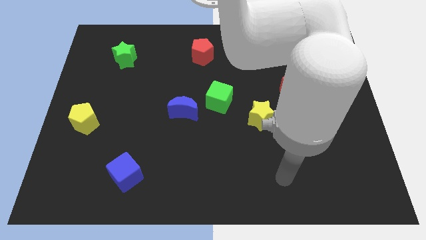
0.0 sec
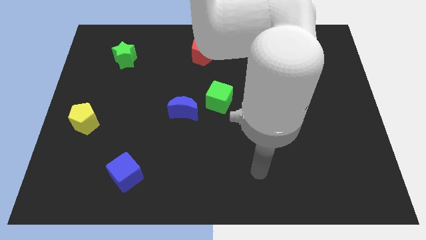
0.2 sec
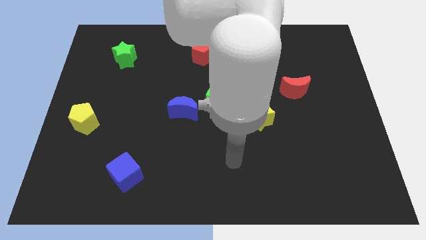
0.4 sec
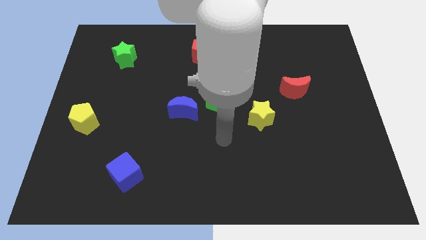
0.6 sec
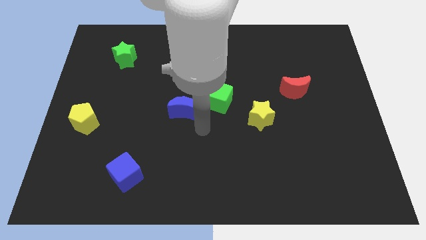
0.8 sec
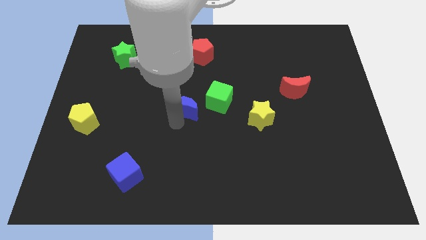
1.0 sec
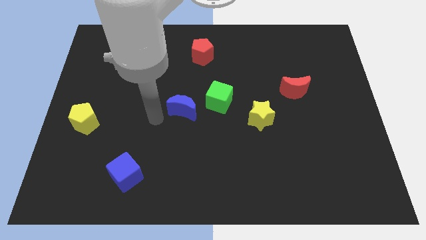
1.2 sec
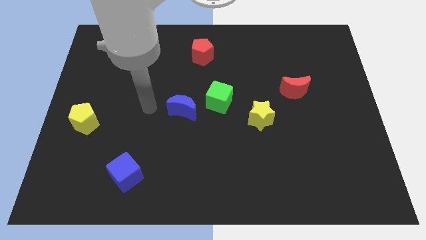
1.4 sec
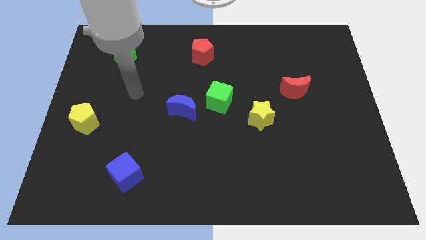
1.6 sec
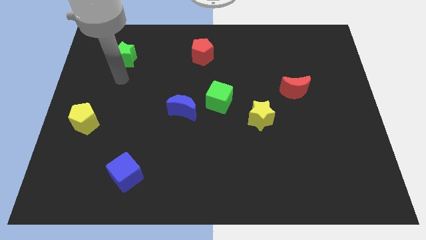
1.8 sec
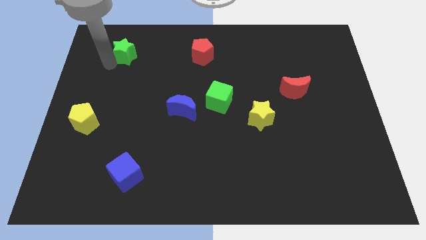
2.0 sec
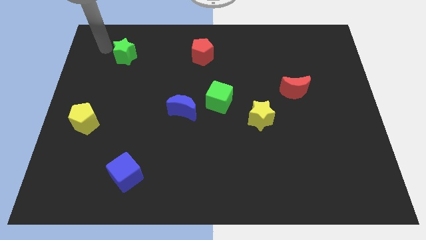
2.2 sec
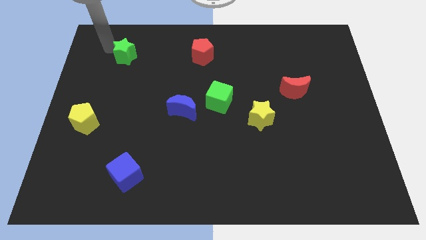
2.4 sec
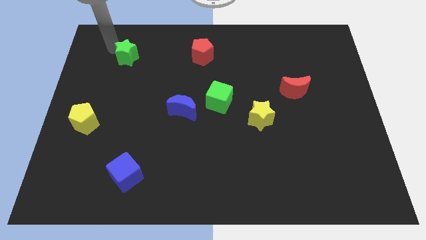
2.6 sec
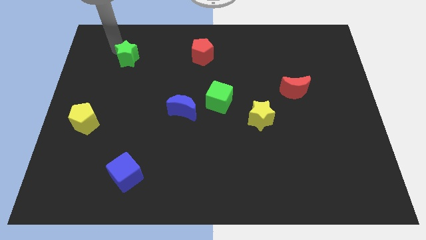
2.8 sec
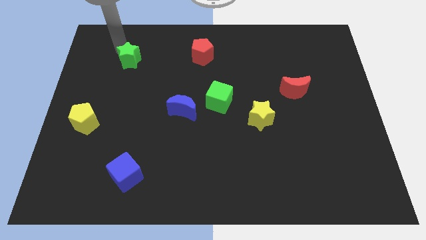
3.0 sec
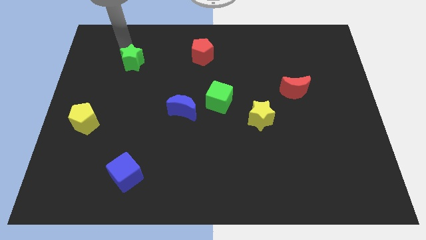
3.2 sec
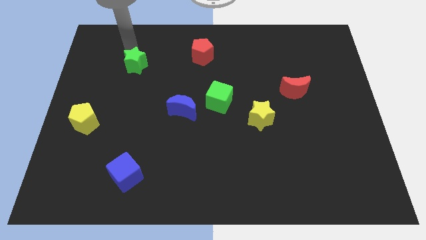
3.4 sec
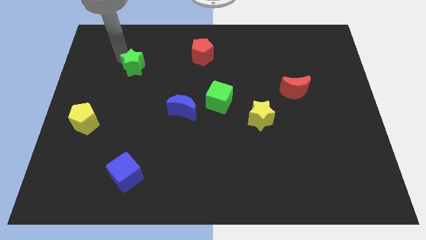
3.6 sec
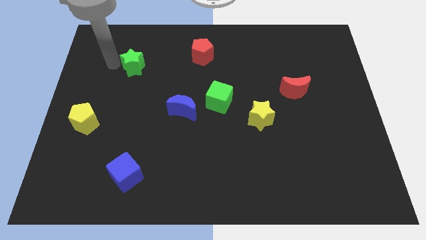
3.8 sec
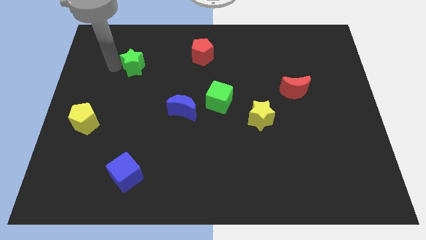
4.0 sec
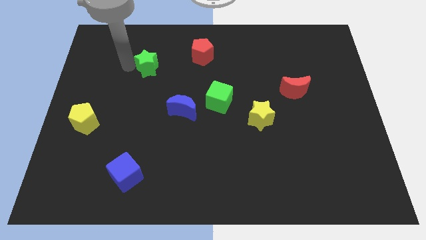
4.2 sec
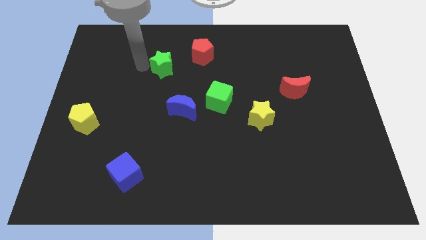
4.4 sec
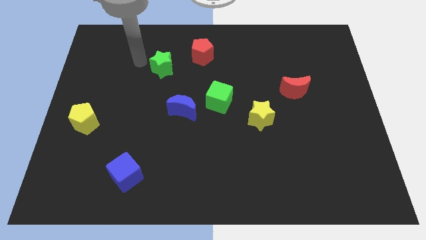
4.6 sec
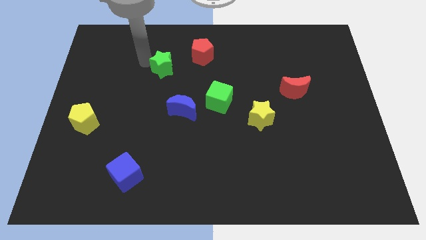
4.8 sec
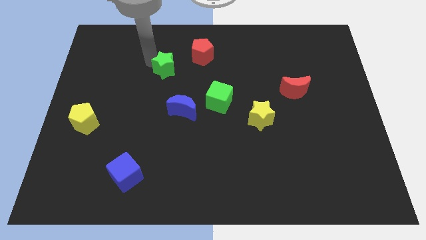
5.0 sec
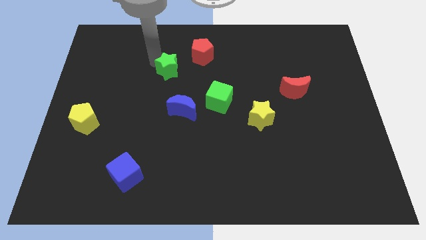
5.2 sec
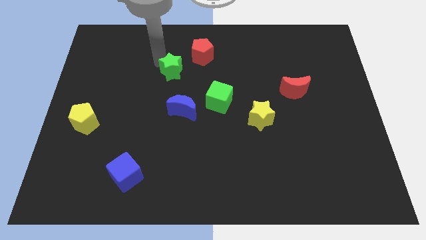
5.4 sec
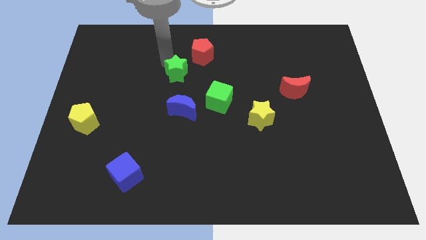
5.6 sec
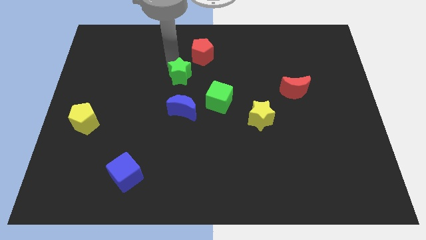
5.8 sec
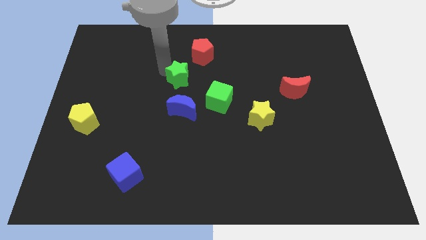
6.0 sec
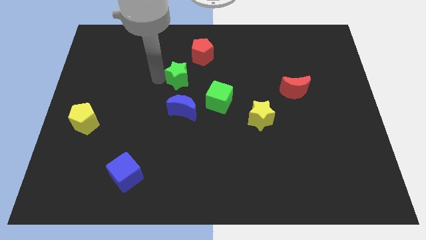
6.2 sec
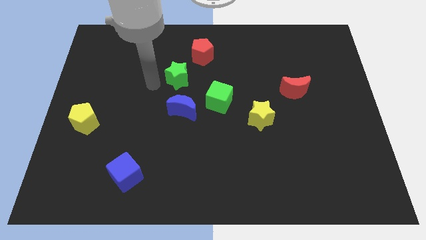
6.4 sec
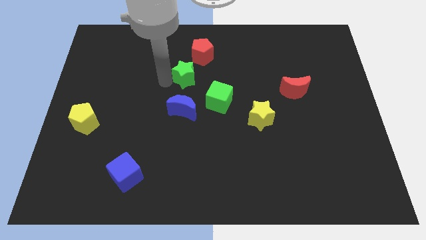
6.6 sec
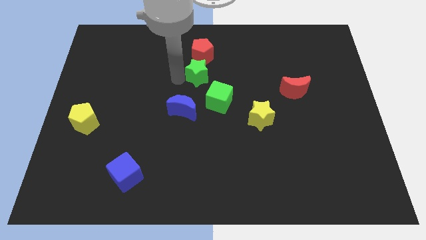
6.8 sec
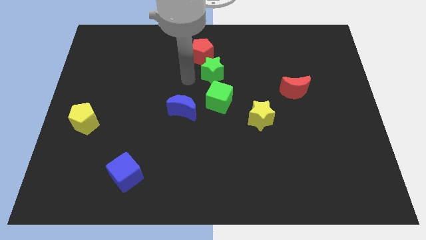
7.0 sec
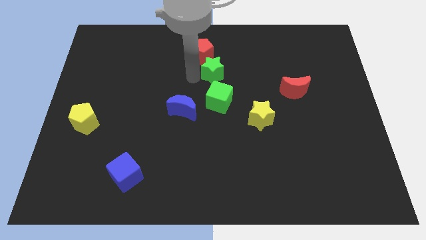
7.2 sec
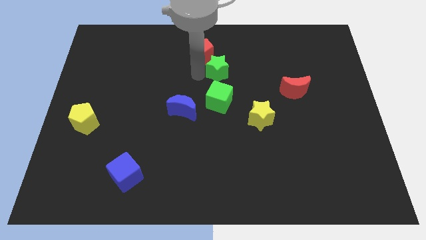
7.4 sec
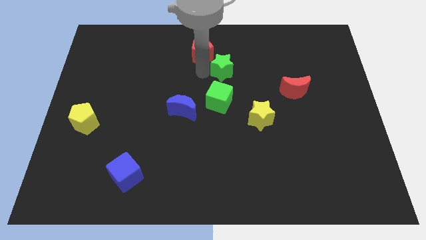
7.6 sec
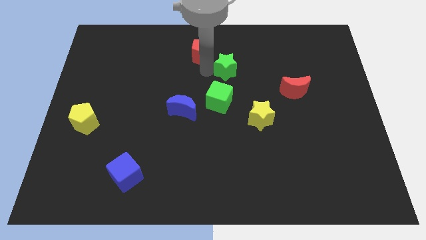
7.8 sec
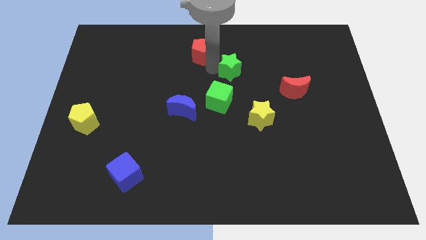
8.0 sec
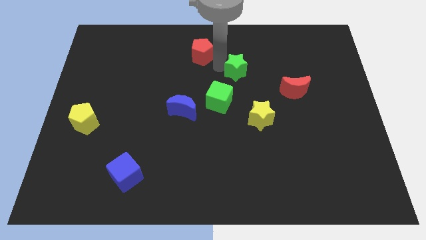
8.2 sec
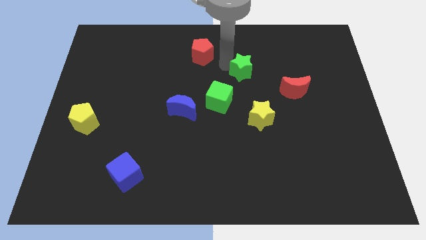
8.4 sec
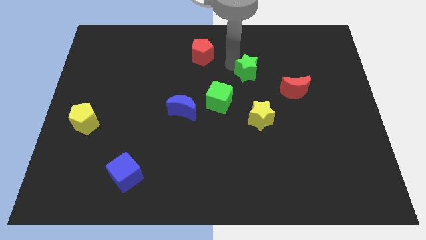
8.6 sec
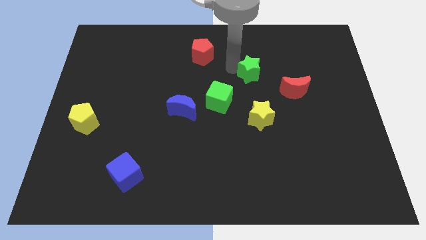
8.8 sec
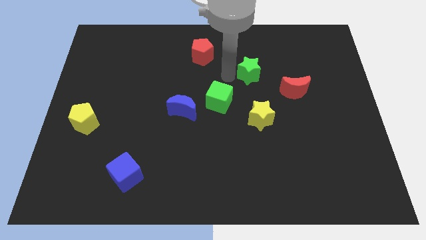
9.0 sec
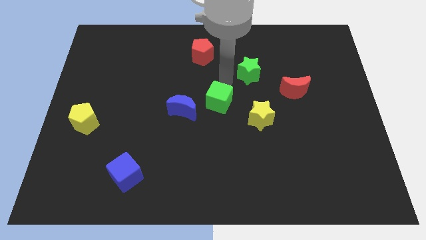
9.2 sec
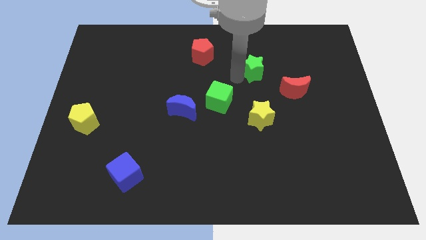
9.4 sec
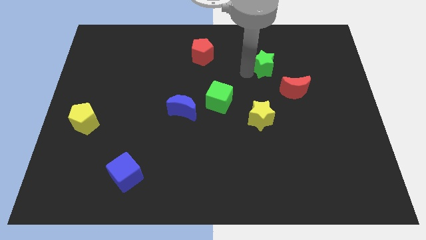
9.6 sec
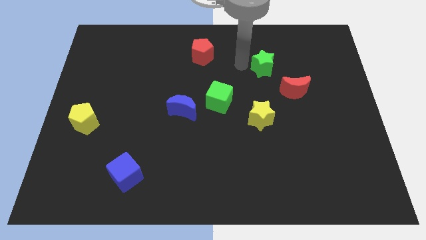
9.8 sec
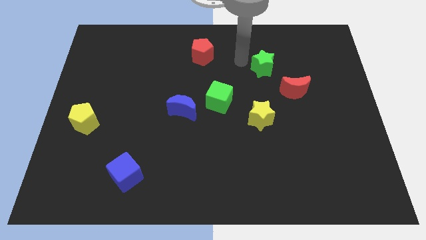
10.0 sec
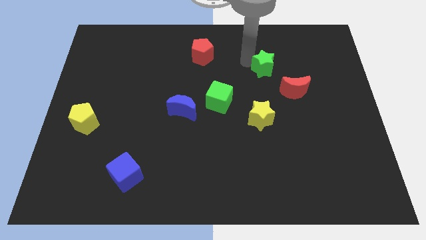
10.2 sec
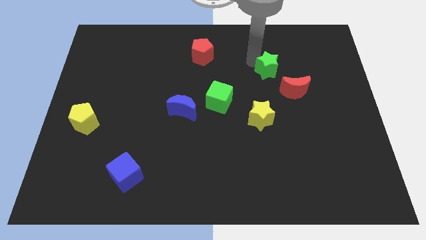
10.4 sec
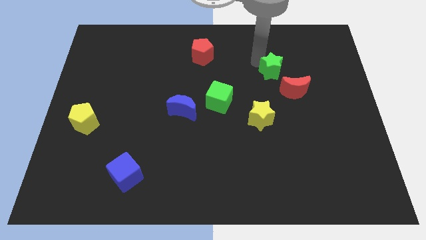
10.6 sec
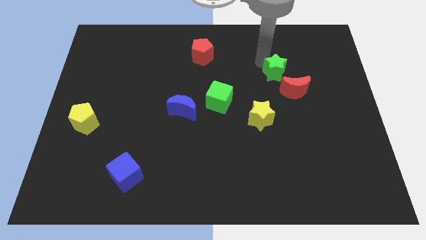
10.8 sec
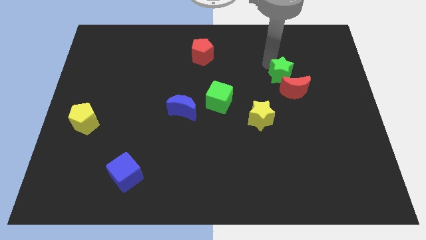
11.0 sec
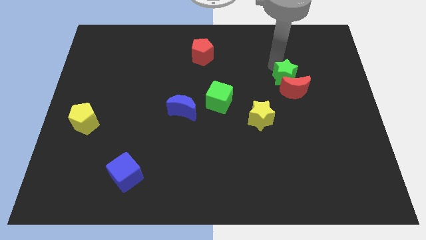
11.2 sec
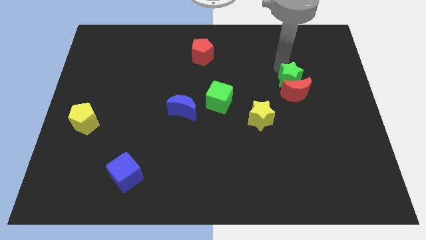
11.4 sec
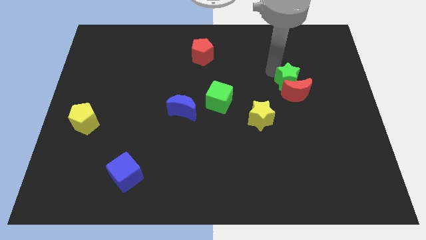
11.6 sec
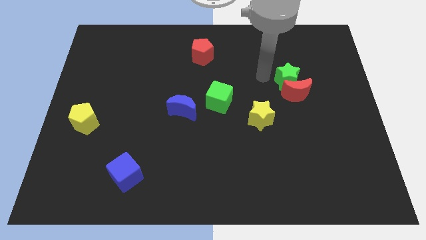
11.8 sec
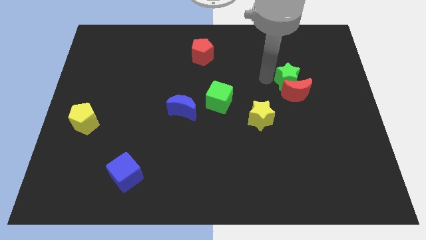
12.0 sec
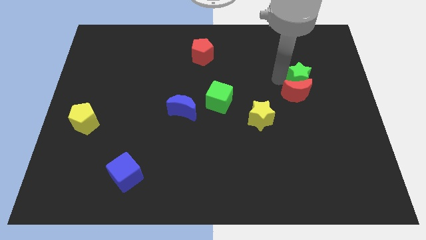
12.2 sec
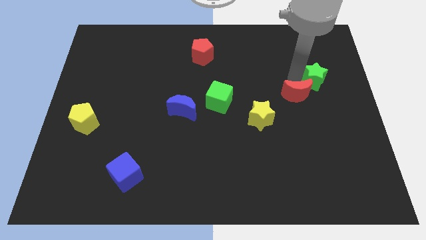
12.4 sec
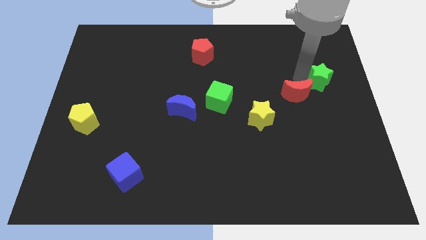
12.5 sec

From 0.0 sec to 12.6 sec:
put the green star to the center right

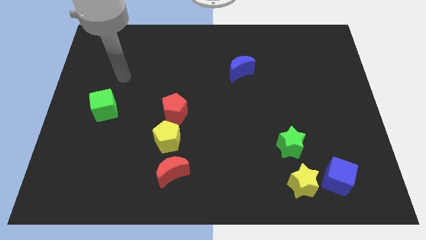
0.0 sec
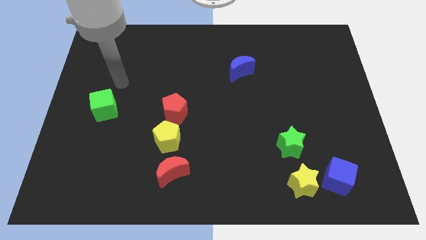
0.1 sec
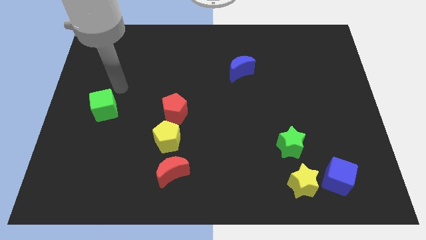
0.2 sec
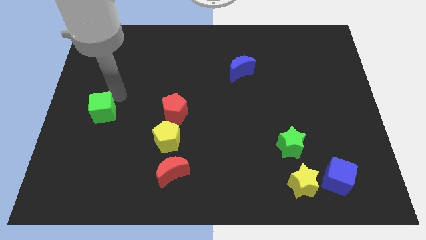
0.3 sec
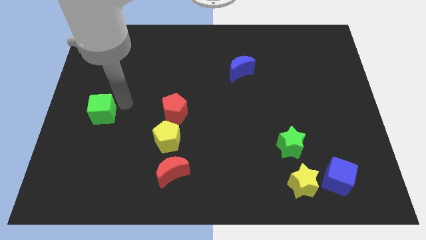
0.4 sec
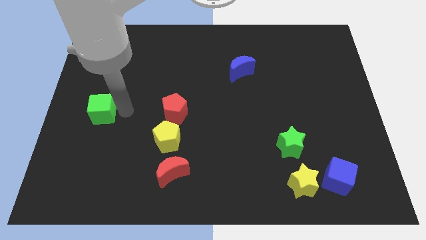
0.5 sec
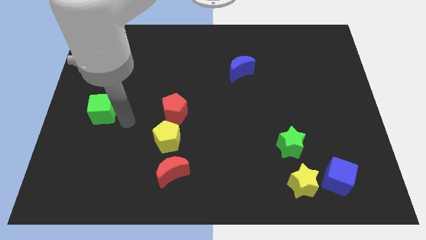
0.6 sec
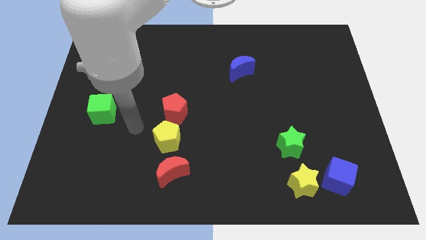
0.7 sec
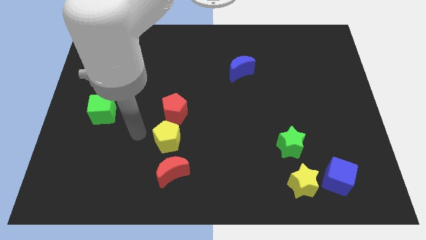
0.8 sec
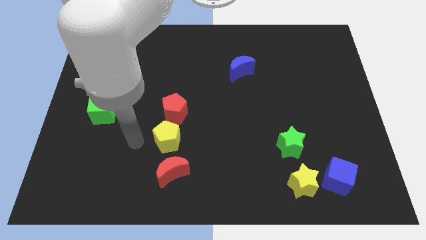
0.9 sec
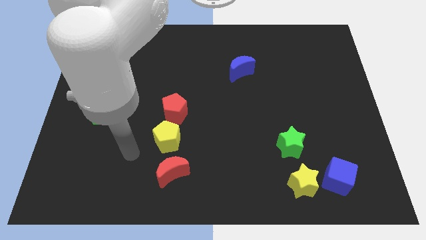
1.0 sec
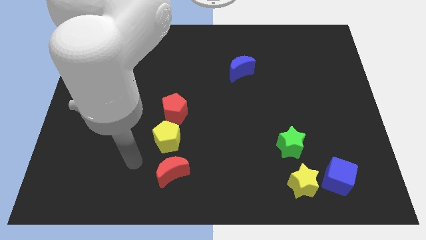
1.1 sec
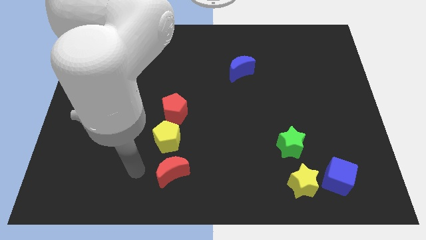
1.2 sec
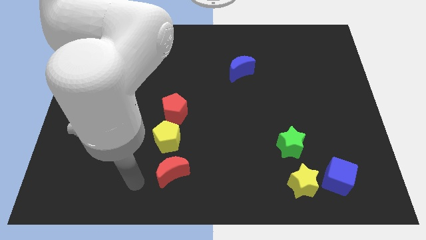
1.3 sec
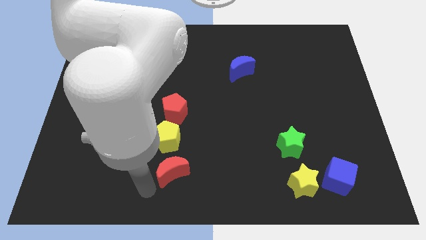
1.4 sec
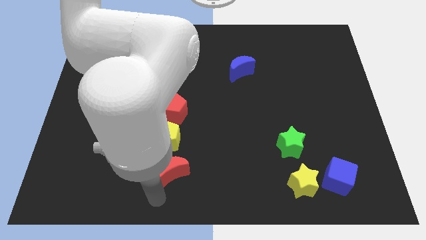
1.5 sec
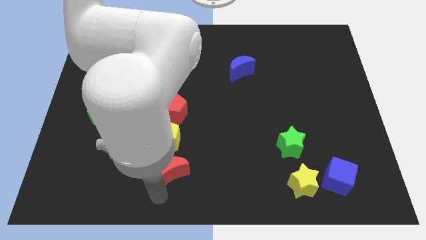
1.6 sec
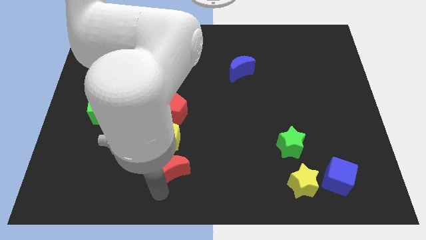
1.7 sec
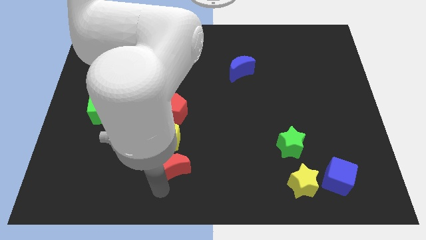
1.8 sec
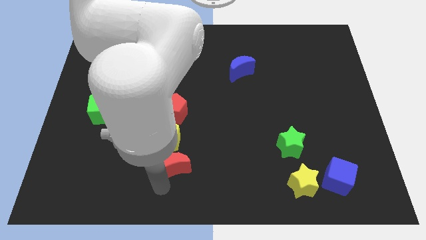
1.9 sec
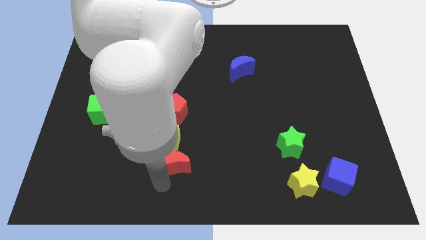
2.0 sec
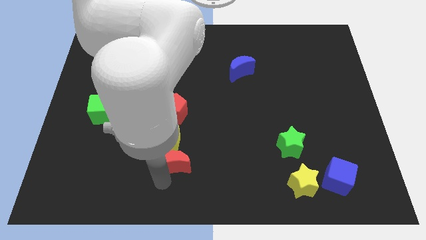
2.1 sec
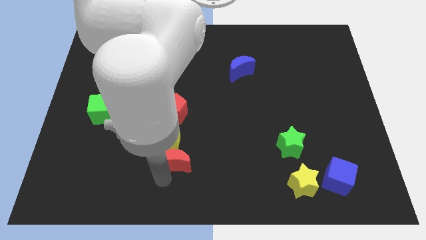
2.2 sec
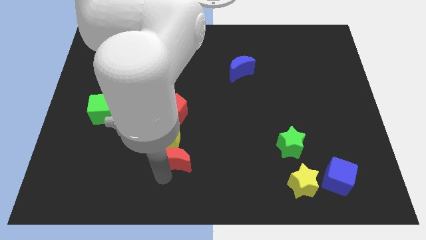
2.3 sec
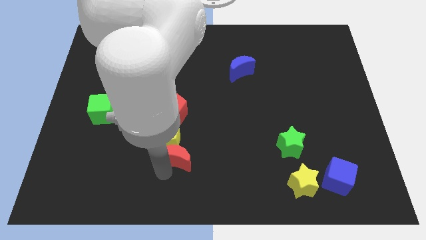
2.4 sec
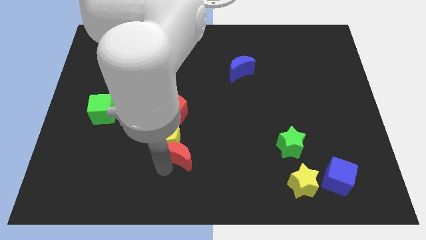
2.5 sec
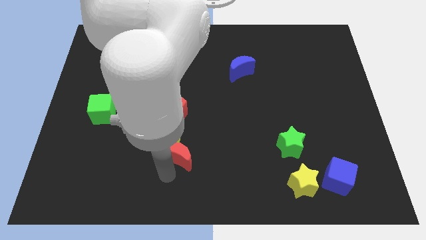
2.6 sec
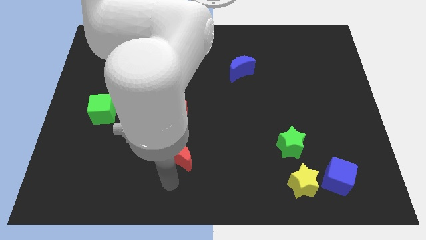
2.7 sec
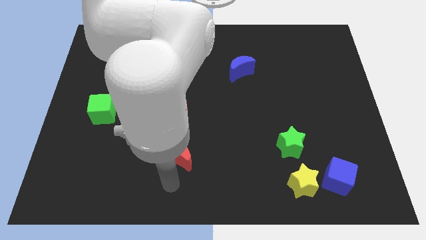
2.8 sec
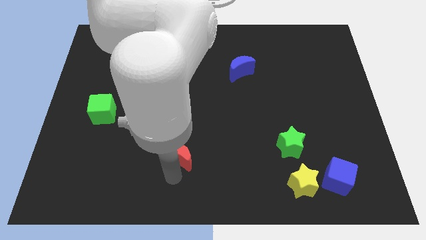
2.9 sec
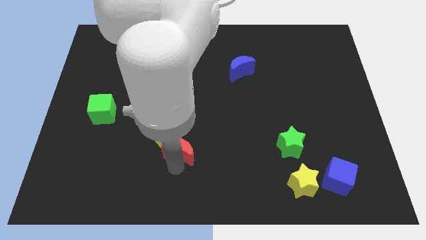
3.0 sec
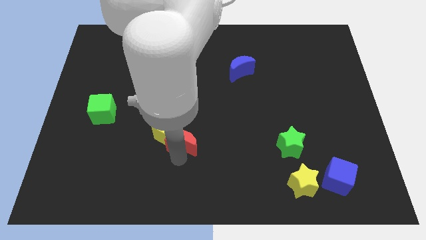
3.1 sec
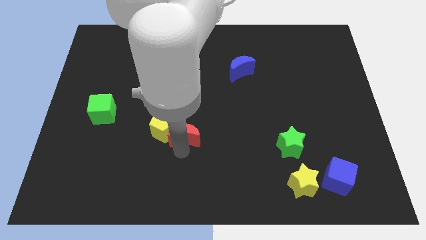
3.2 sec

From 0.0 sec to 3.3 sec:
slide the red moon to the middle
